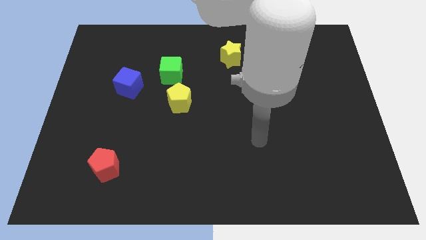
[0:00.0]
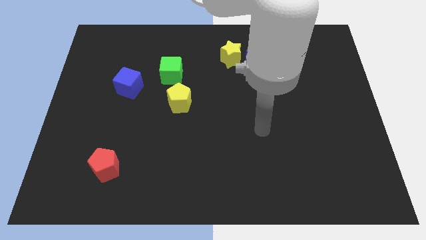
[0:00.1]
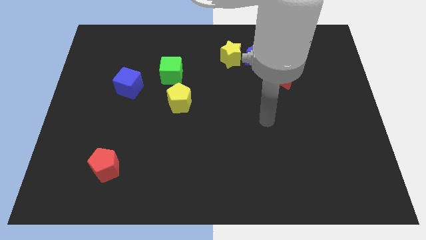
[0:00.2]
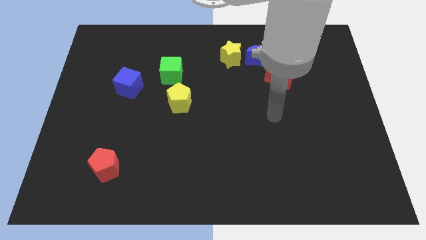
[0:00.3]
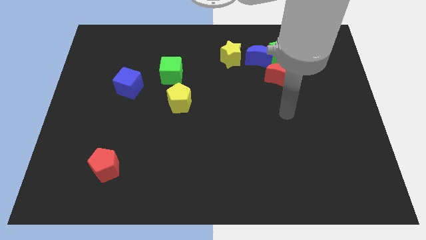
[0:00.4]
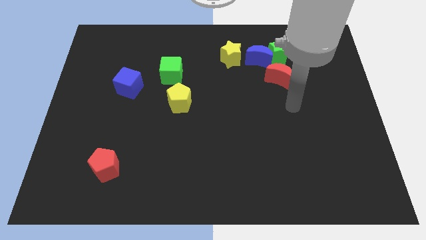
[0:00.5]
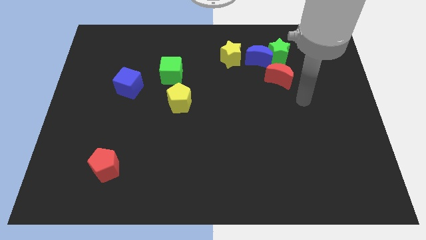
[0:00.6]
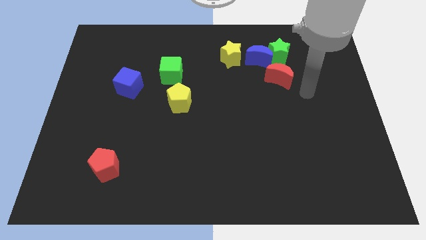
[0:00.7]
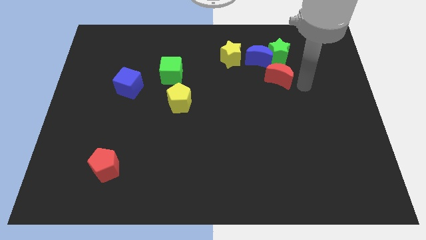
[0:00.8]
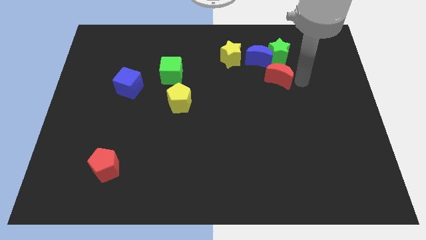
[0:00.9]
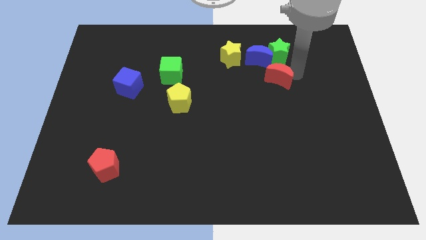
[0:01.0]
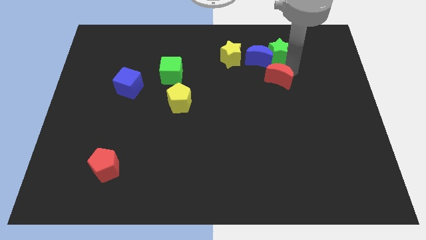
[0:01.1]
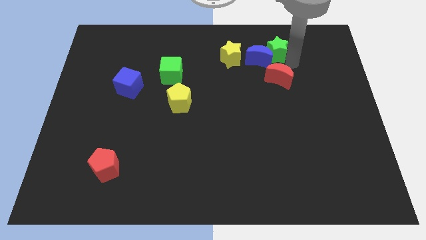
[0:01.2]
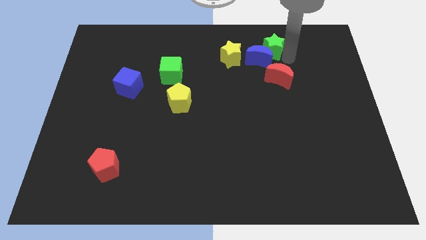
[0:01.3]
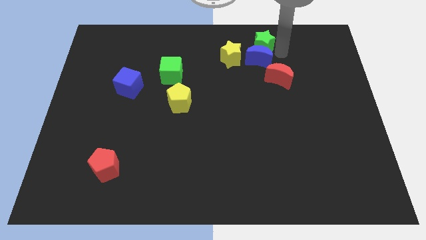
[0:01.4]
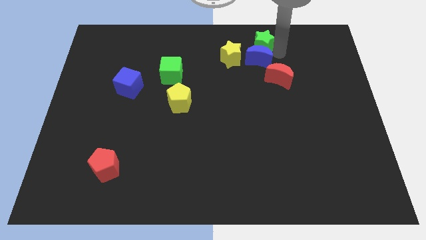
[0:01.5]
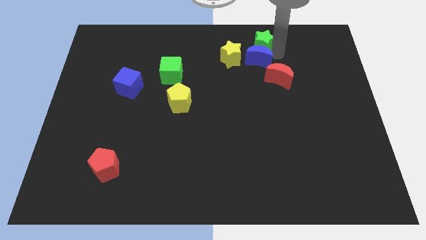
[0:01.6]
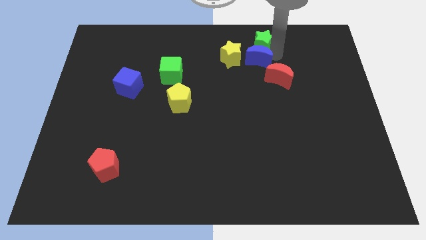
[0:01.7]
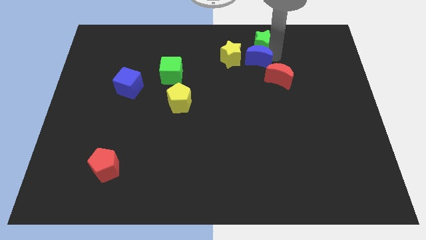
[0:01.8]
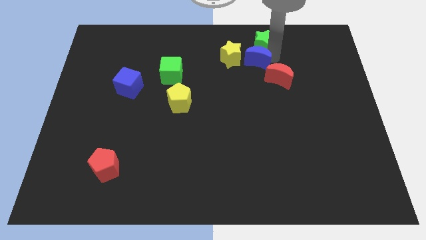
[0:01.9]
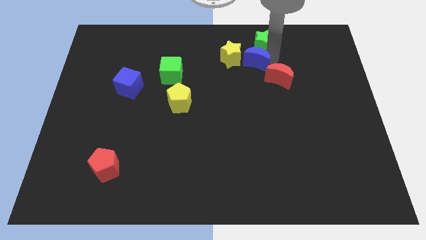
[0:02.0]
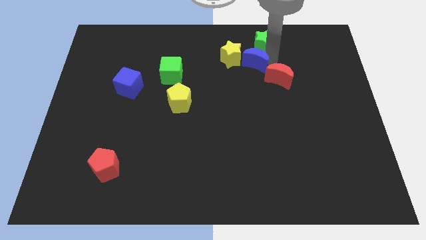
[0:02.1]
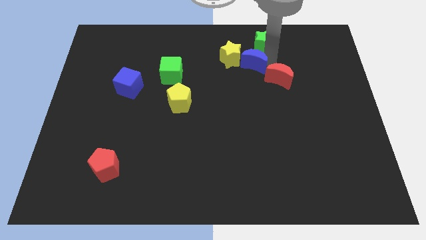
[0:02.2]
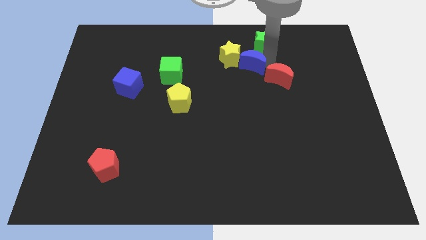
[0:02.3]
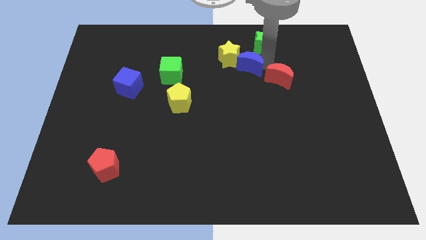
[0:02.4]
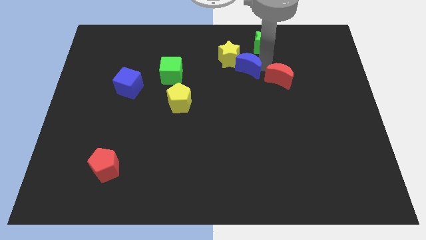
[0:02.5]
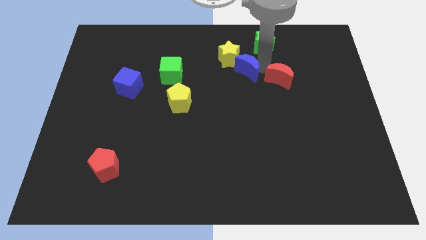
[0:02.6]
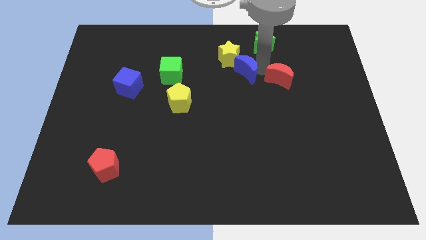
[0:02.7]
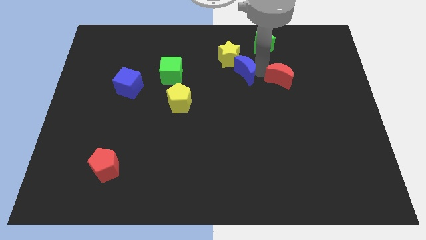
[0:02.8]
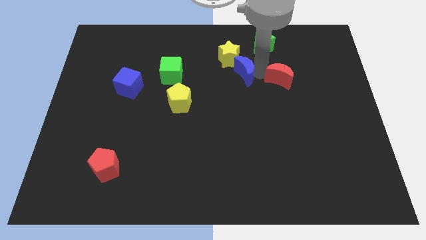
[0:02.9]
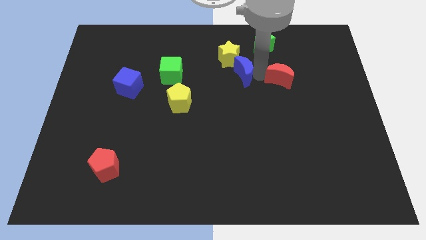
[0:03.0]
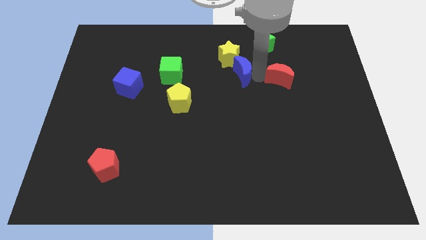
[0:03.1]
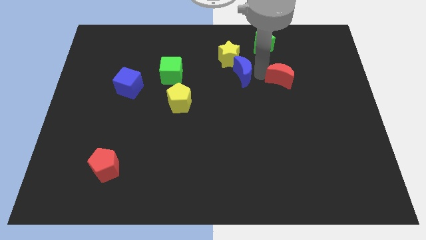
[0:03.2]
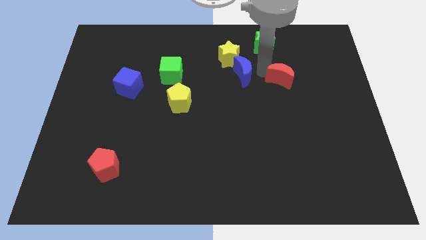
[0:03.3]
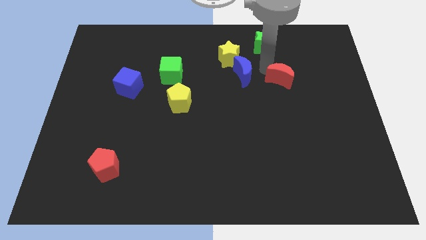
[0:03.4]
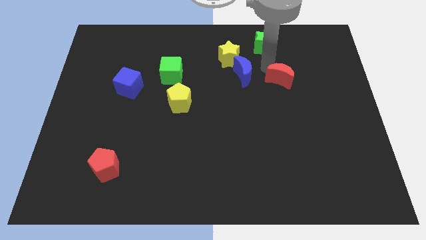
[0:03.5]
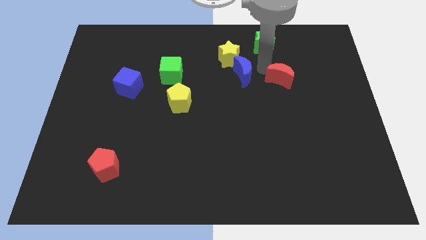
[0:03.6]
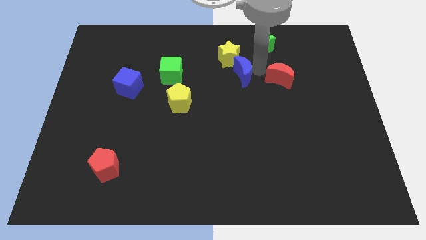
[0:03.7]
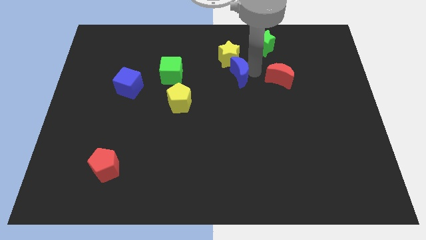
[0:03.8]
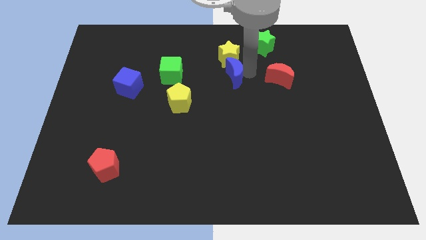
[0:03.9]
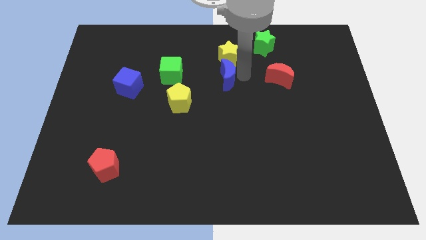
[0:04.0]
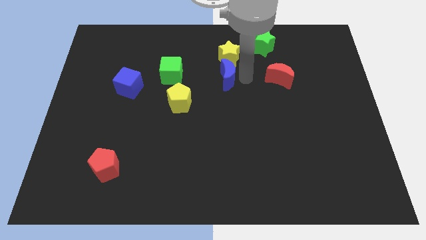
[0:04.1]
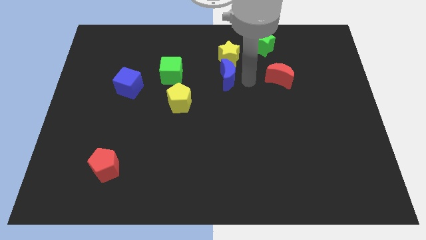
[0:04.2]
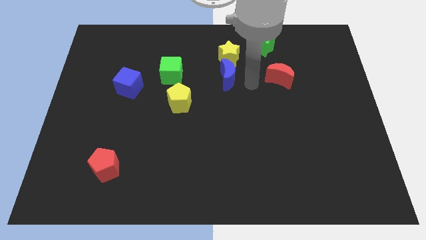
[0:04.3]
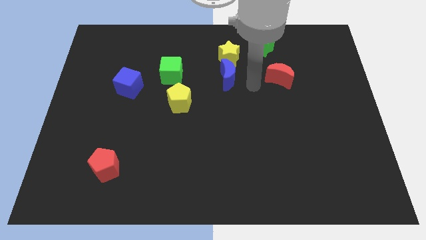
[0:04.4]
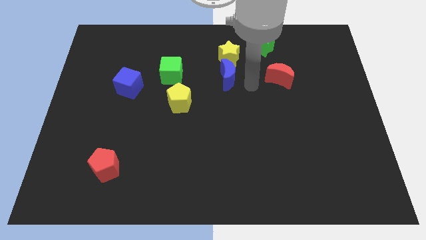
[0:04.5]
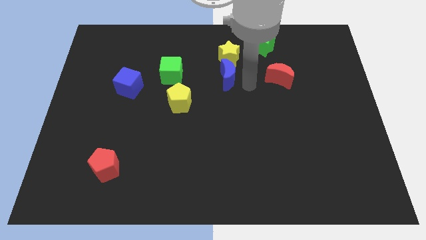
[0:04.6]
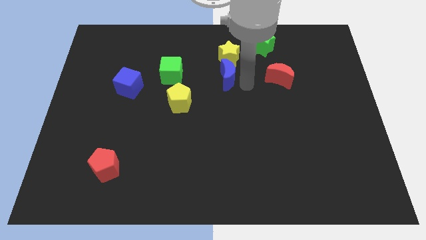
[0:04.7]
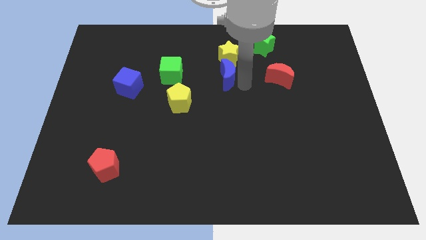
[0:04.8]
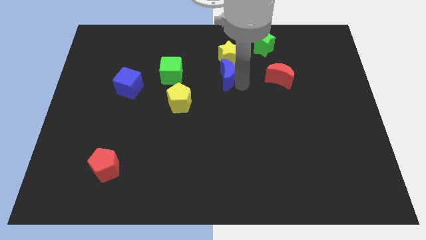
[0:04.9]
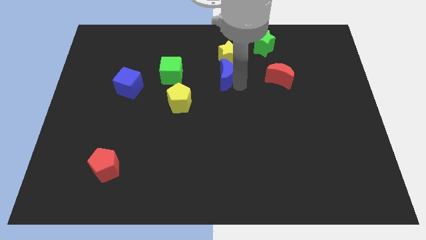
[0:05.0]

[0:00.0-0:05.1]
slightly slide the blue moon left

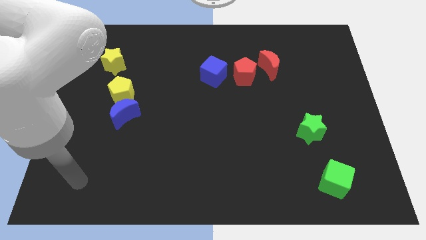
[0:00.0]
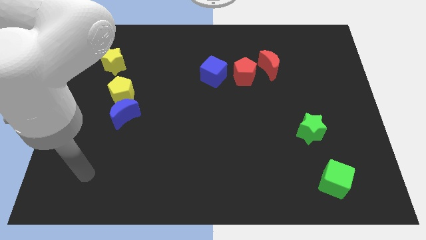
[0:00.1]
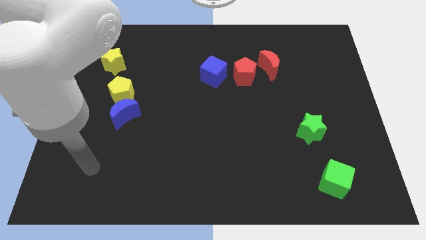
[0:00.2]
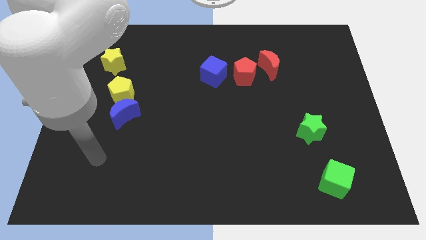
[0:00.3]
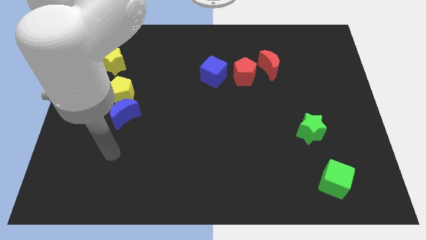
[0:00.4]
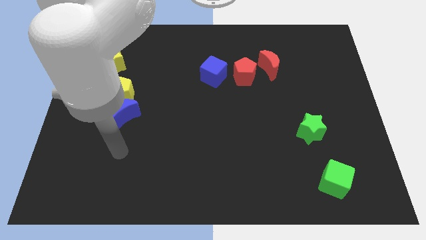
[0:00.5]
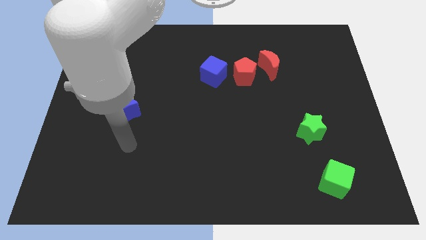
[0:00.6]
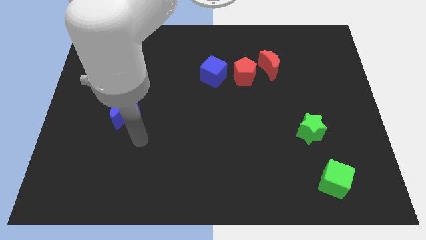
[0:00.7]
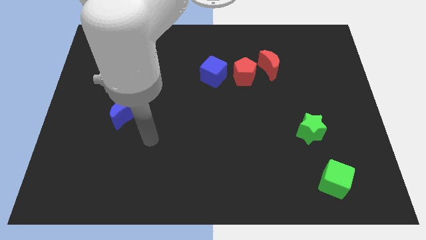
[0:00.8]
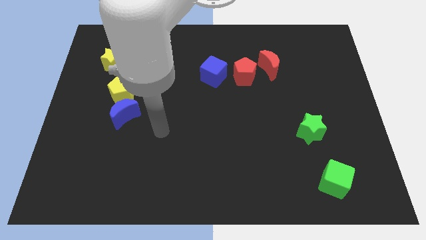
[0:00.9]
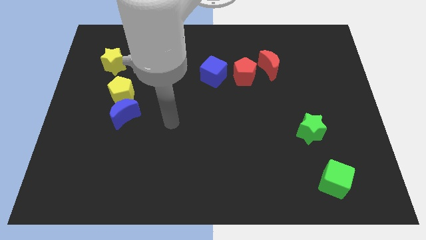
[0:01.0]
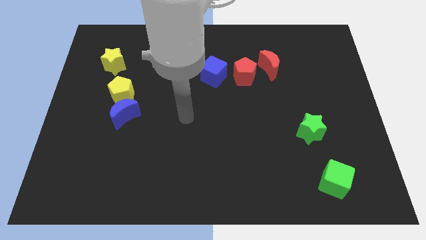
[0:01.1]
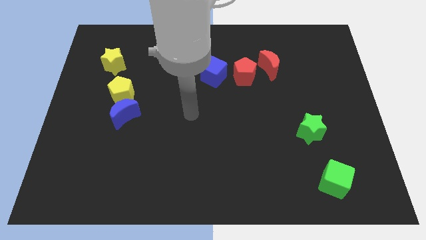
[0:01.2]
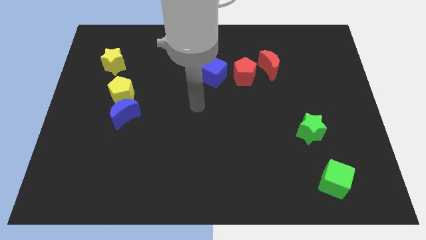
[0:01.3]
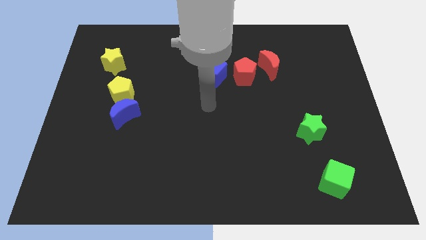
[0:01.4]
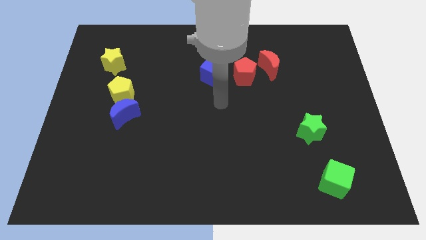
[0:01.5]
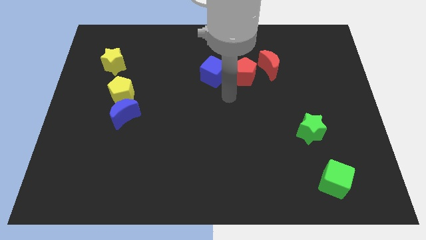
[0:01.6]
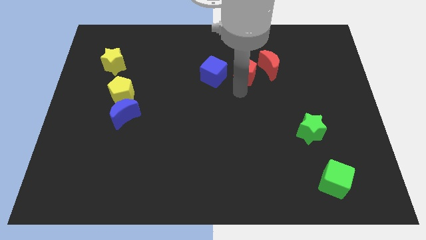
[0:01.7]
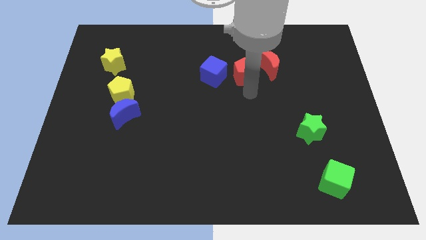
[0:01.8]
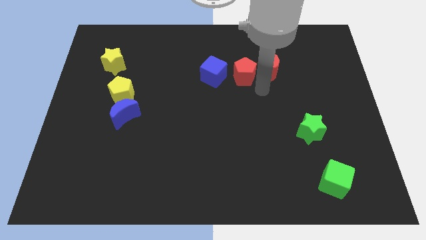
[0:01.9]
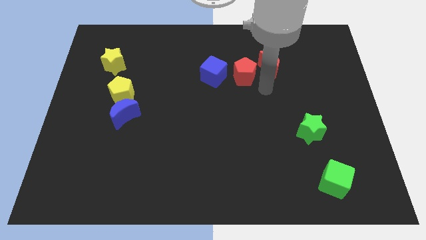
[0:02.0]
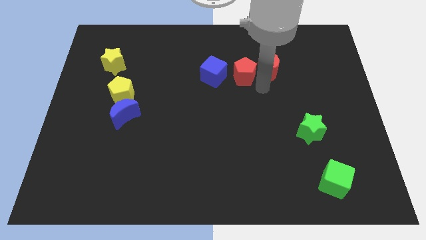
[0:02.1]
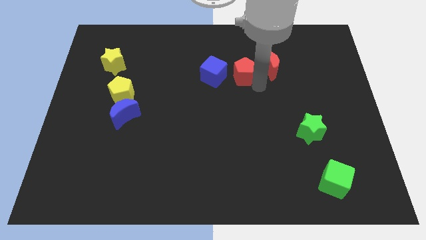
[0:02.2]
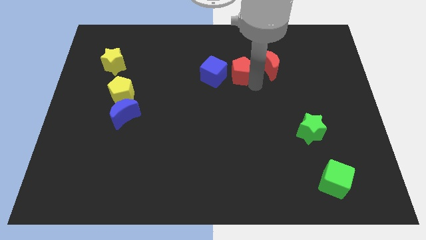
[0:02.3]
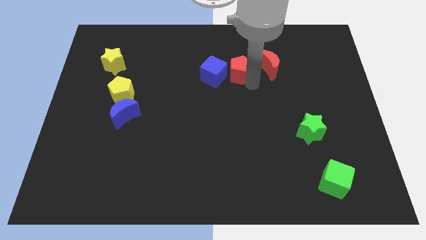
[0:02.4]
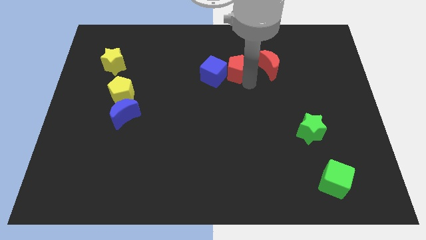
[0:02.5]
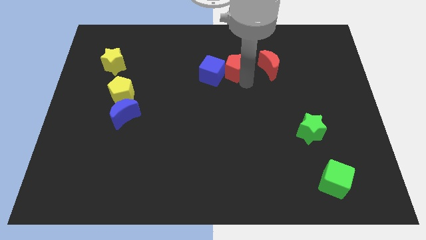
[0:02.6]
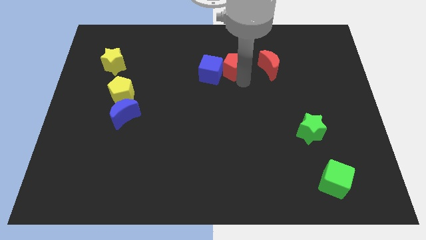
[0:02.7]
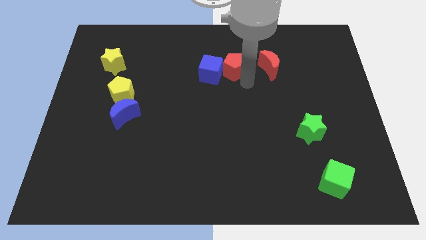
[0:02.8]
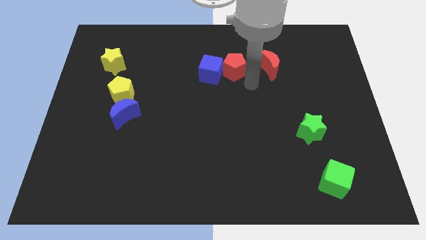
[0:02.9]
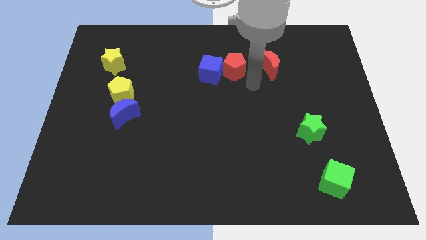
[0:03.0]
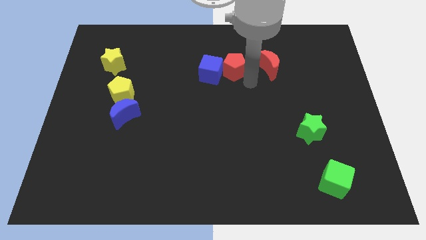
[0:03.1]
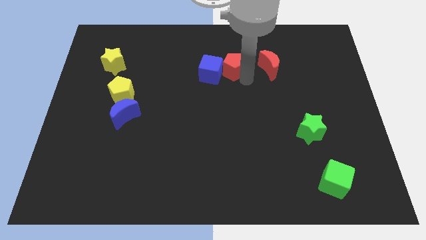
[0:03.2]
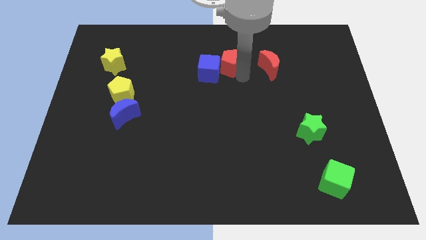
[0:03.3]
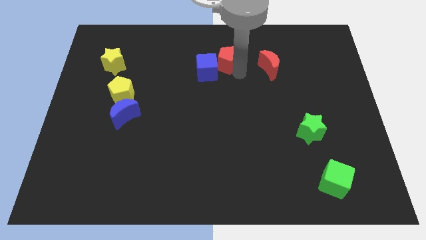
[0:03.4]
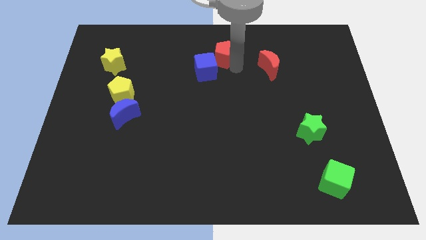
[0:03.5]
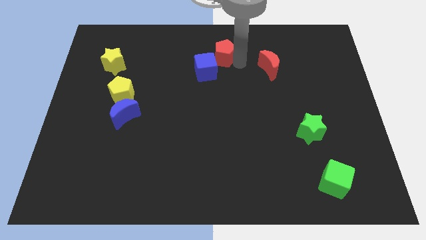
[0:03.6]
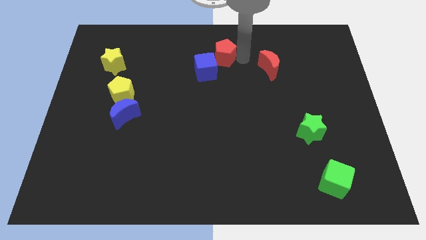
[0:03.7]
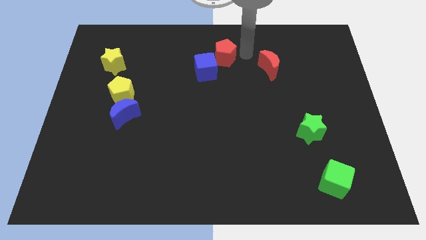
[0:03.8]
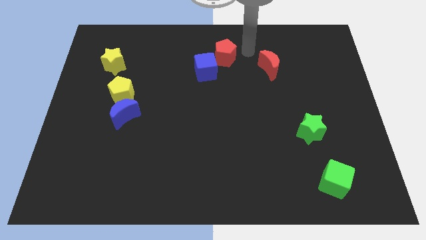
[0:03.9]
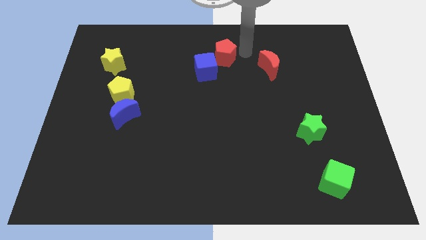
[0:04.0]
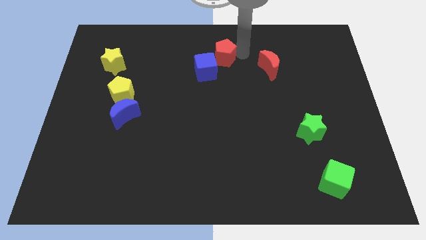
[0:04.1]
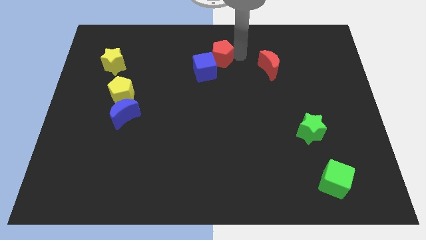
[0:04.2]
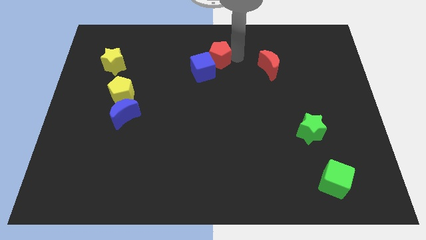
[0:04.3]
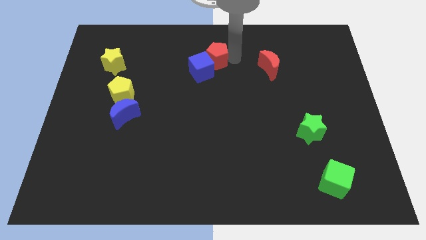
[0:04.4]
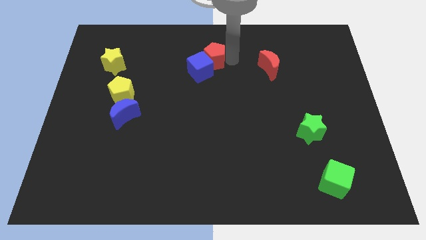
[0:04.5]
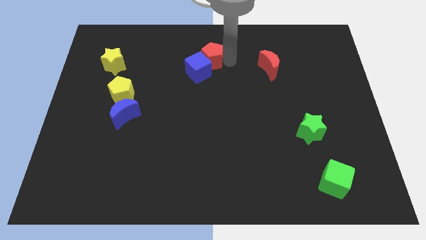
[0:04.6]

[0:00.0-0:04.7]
push the red pentagon to the left a little bit
